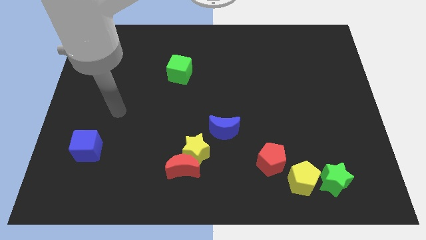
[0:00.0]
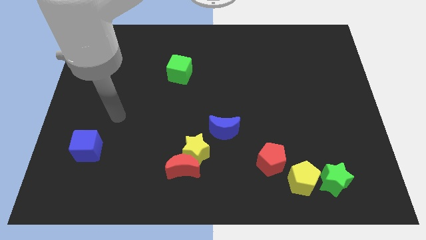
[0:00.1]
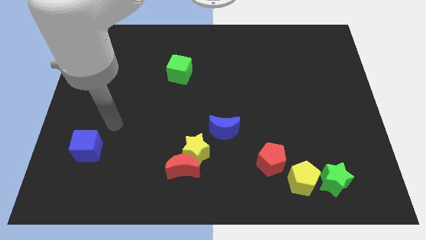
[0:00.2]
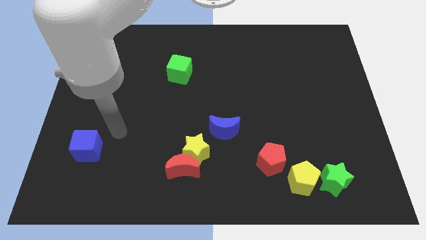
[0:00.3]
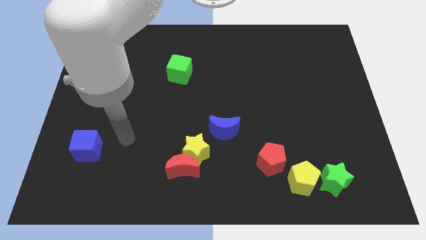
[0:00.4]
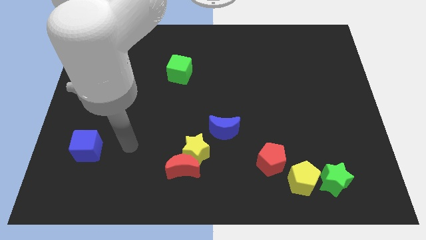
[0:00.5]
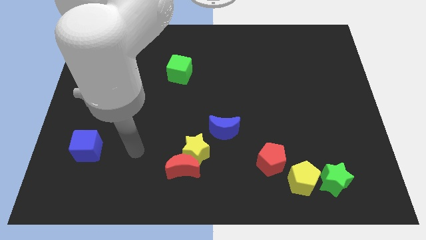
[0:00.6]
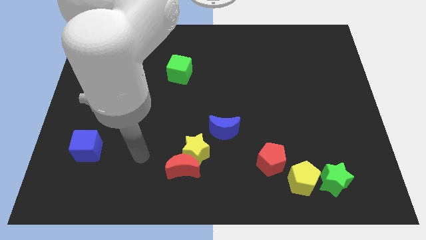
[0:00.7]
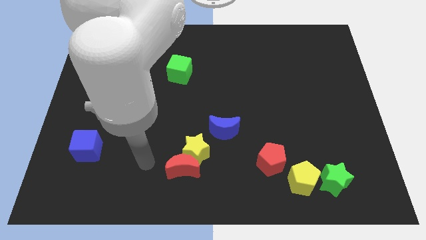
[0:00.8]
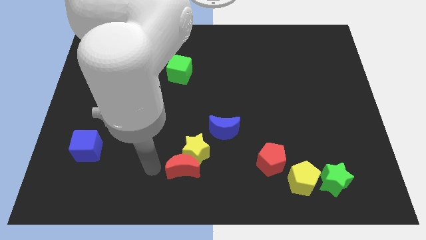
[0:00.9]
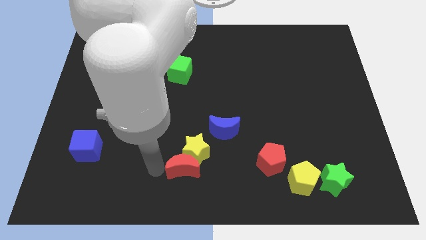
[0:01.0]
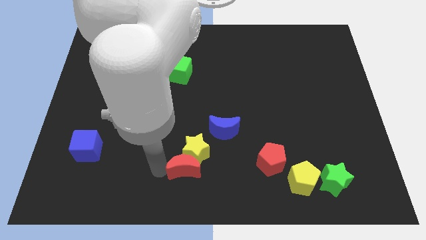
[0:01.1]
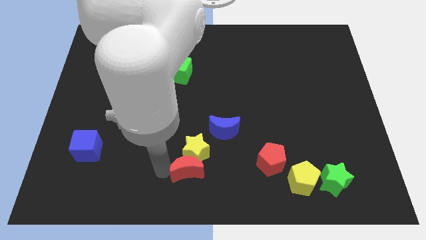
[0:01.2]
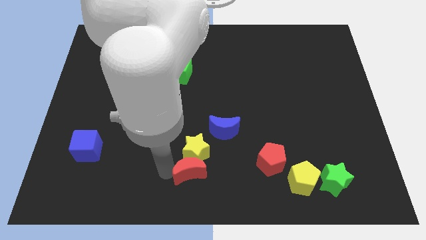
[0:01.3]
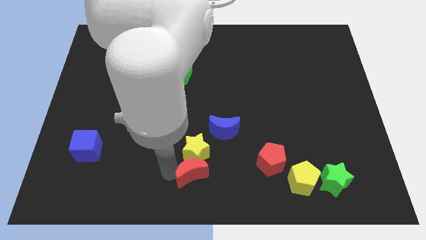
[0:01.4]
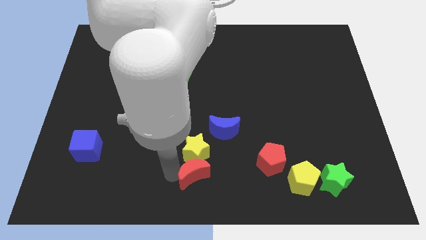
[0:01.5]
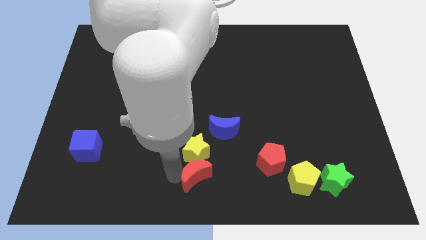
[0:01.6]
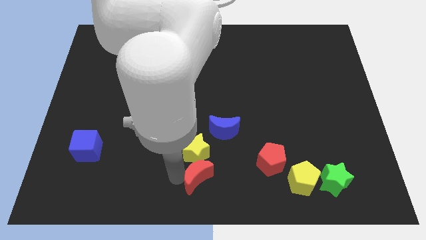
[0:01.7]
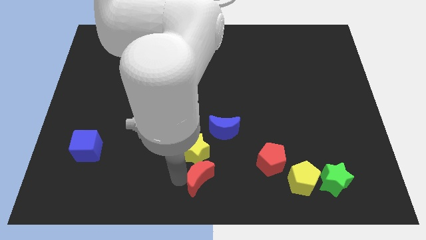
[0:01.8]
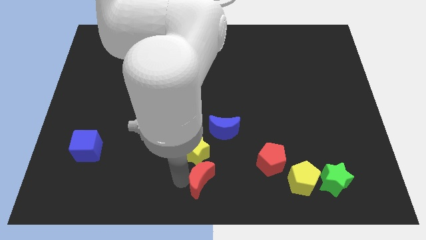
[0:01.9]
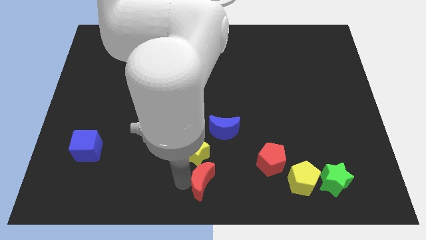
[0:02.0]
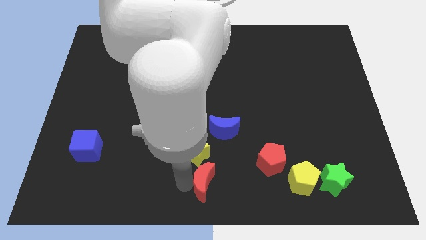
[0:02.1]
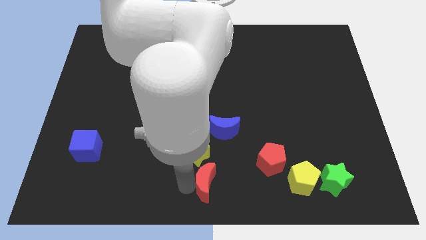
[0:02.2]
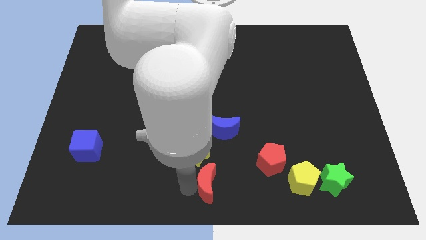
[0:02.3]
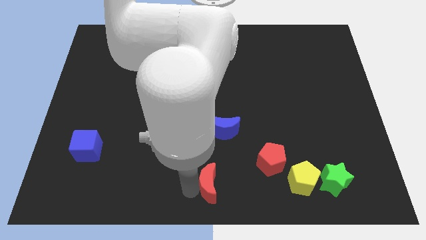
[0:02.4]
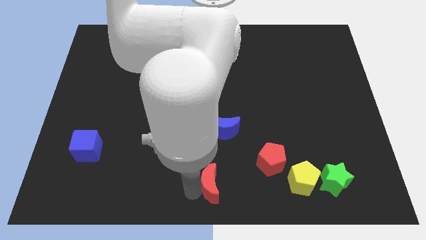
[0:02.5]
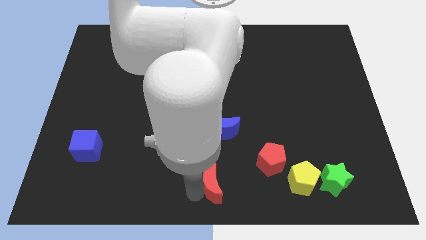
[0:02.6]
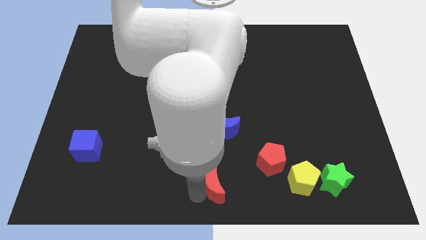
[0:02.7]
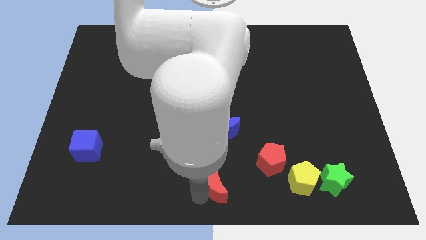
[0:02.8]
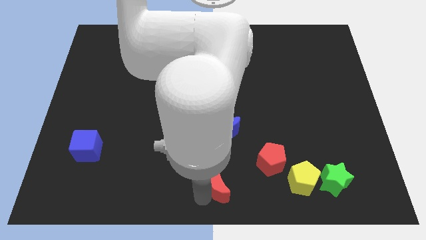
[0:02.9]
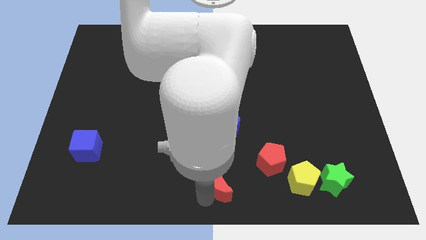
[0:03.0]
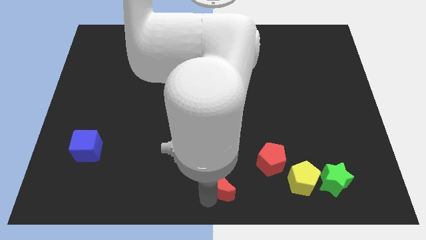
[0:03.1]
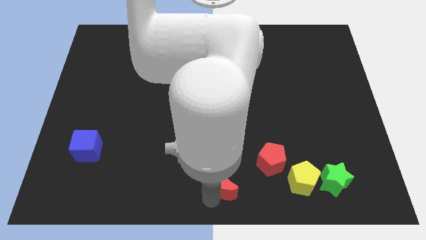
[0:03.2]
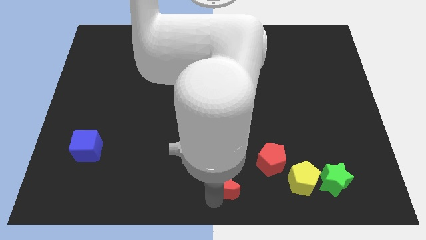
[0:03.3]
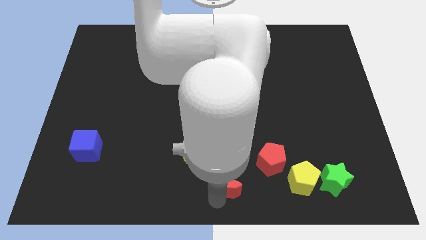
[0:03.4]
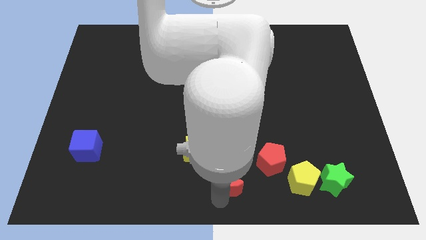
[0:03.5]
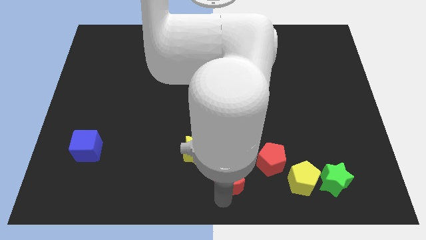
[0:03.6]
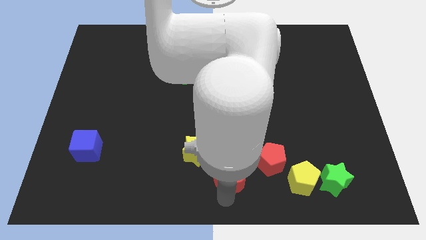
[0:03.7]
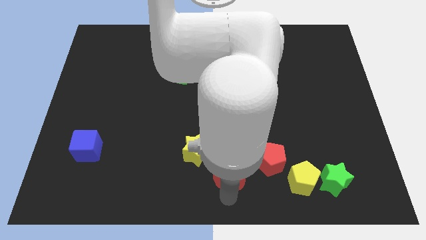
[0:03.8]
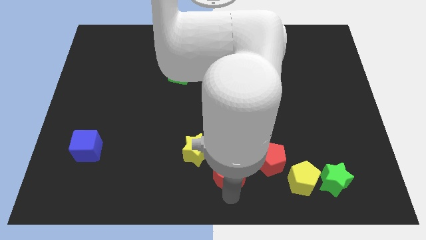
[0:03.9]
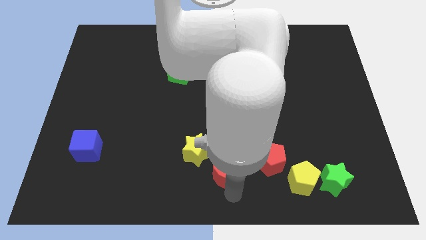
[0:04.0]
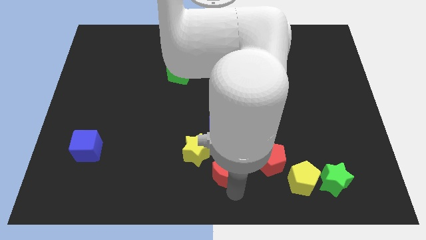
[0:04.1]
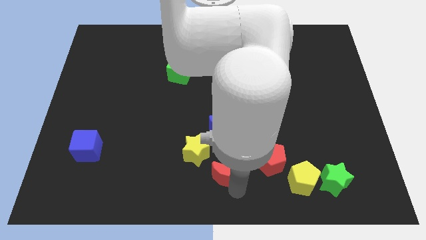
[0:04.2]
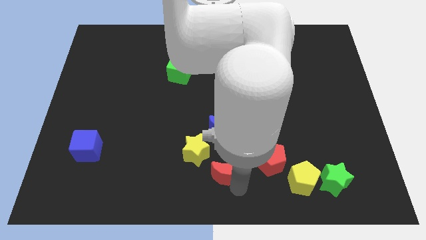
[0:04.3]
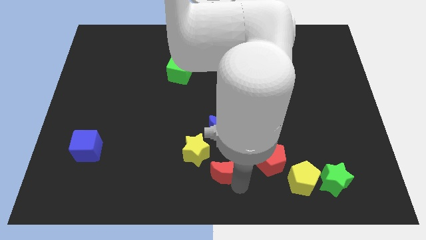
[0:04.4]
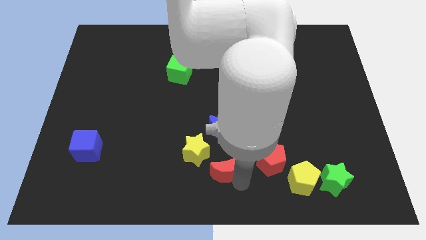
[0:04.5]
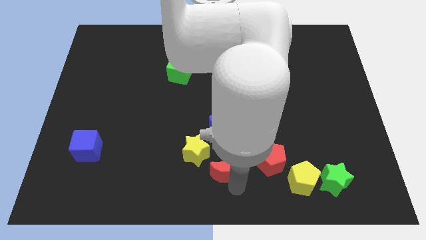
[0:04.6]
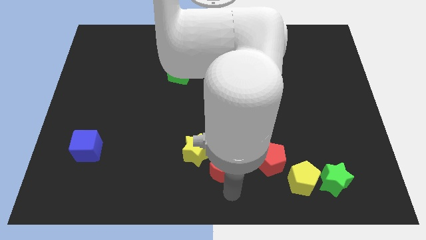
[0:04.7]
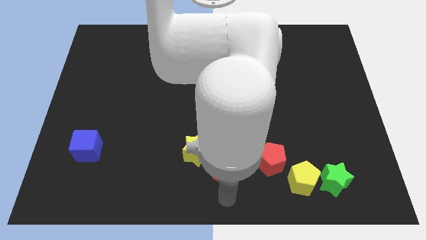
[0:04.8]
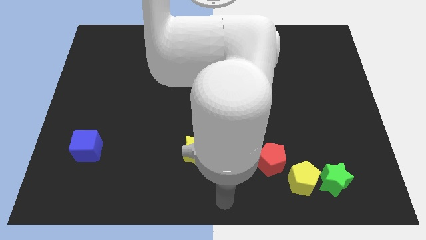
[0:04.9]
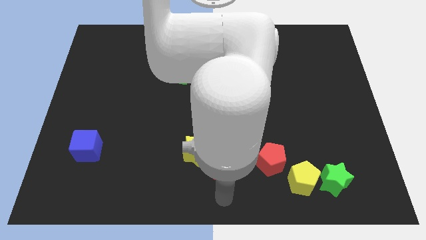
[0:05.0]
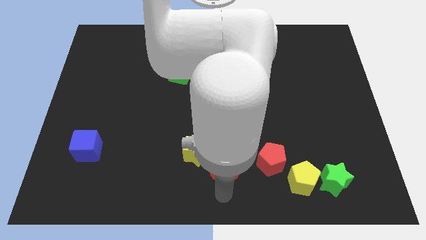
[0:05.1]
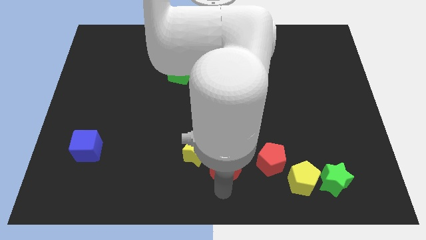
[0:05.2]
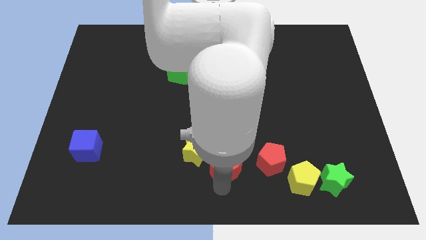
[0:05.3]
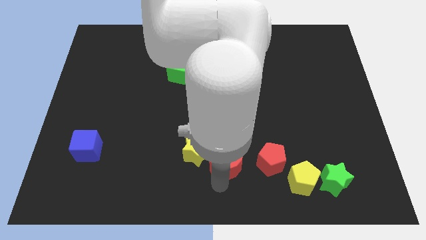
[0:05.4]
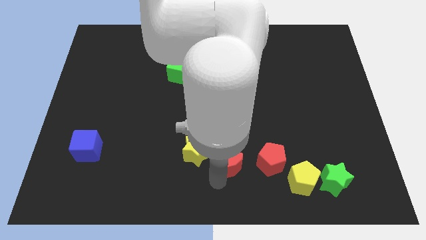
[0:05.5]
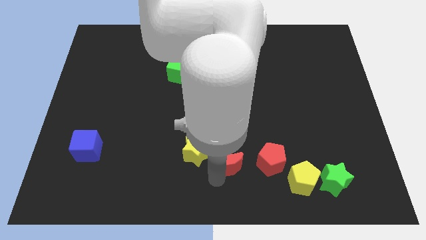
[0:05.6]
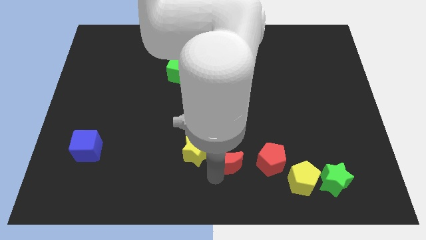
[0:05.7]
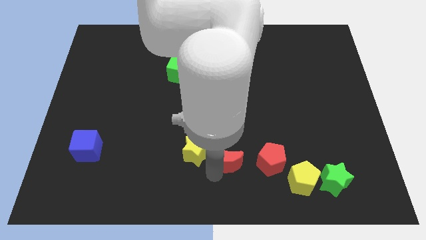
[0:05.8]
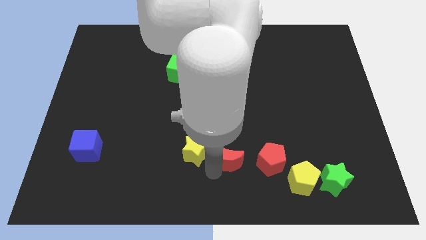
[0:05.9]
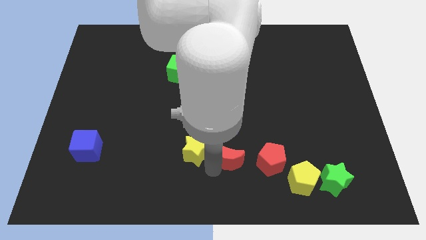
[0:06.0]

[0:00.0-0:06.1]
move the red moon a little diagonally upwards and to the right

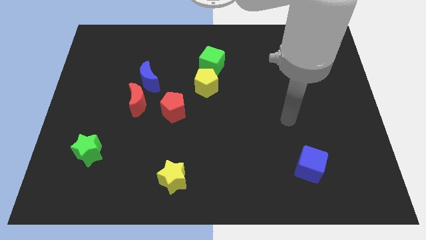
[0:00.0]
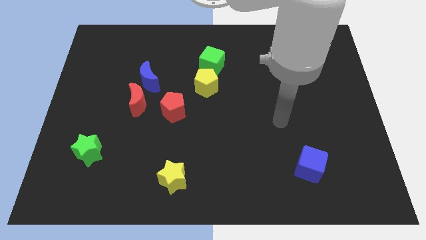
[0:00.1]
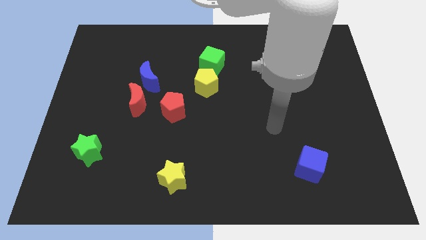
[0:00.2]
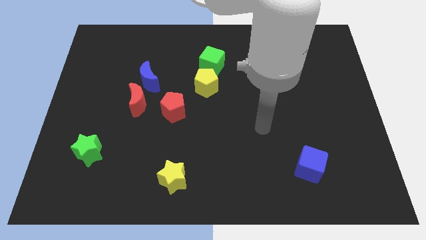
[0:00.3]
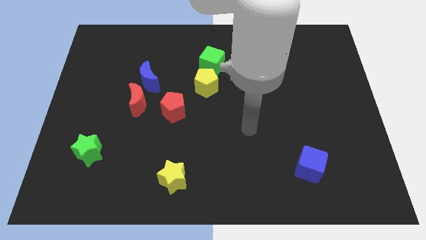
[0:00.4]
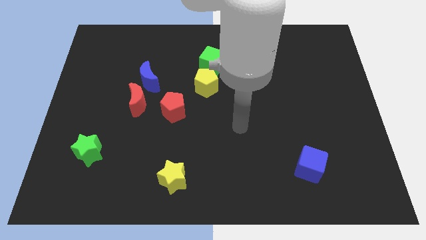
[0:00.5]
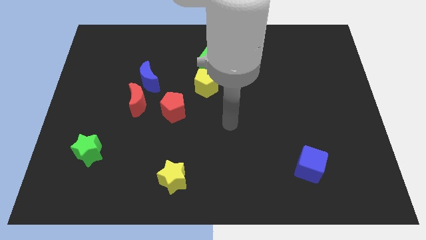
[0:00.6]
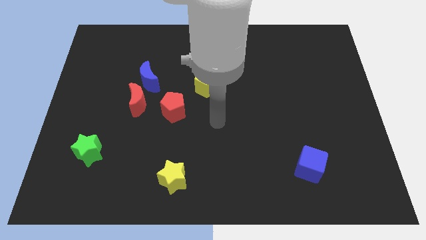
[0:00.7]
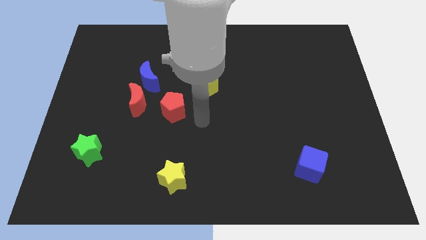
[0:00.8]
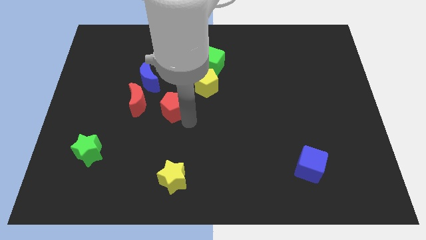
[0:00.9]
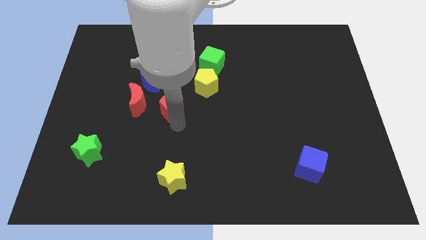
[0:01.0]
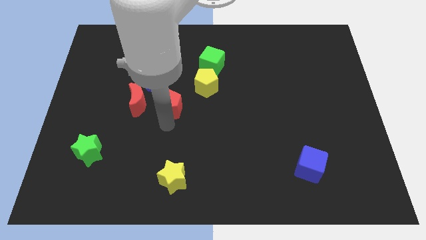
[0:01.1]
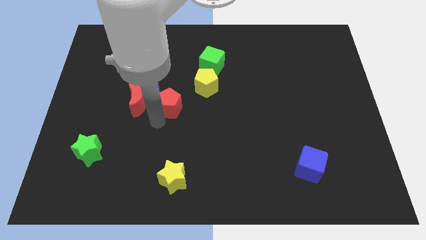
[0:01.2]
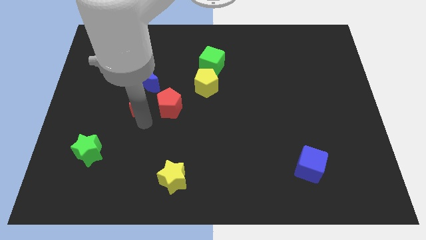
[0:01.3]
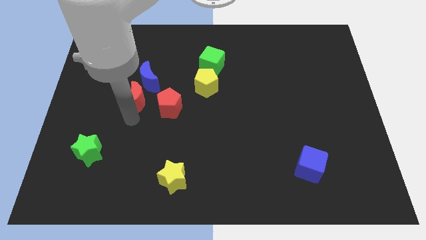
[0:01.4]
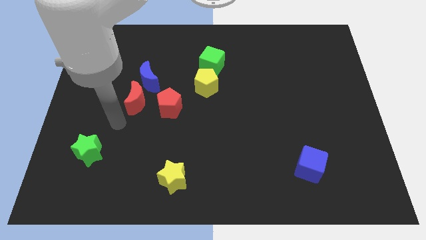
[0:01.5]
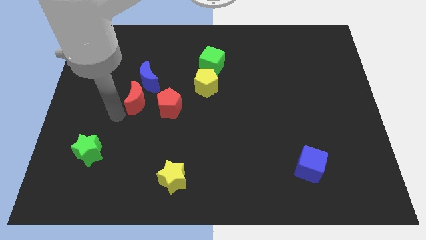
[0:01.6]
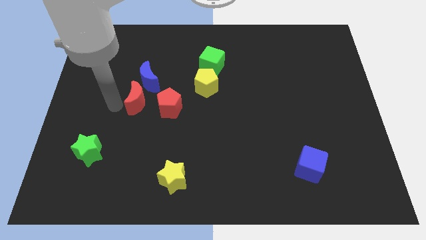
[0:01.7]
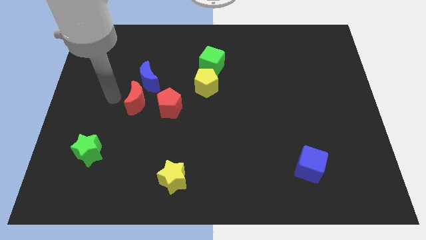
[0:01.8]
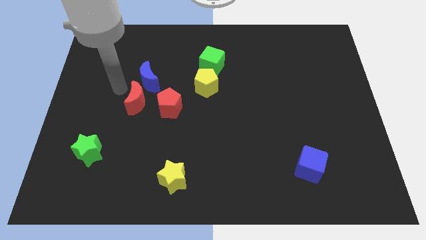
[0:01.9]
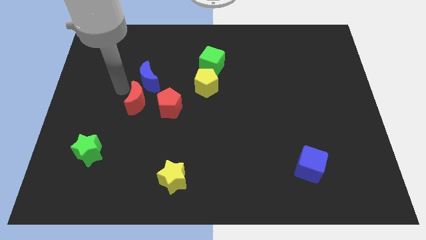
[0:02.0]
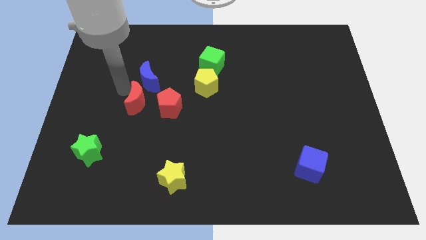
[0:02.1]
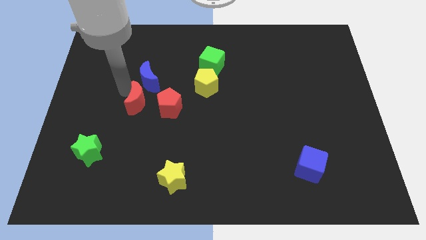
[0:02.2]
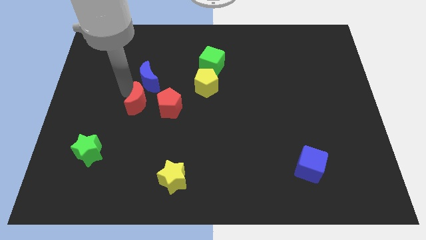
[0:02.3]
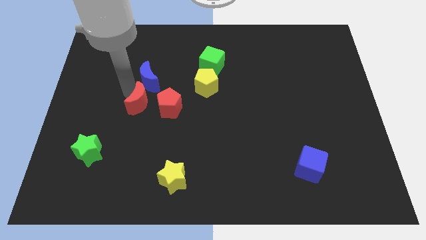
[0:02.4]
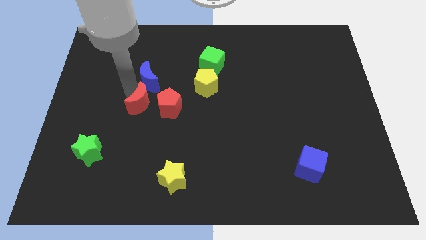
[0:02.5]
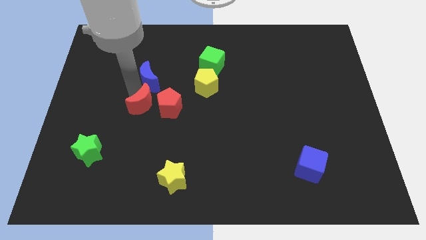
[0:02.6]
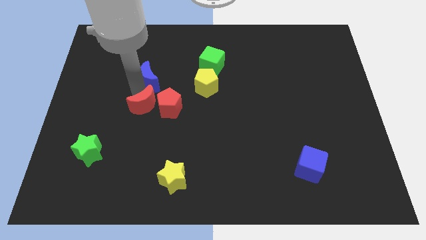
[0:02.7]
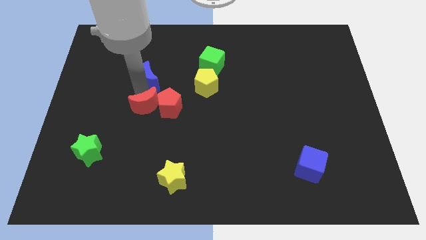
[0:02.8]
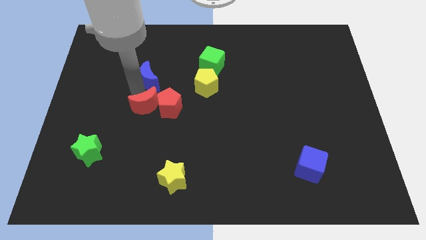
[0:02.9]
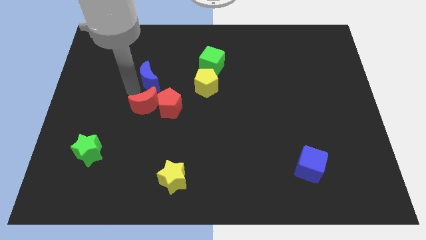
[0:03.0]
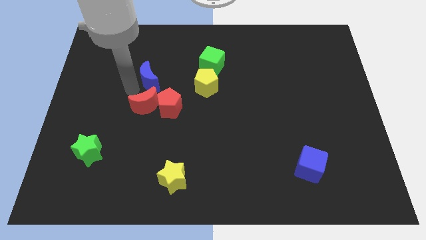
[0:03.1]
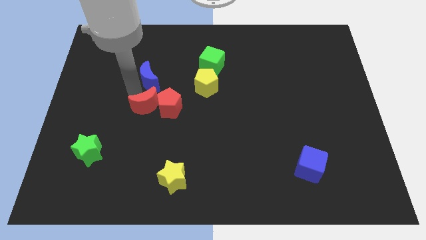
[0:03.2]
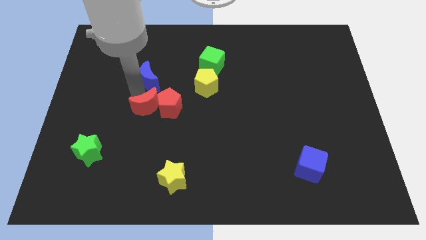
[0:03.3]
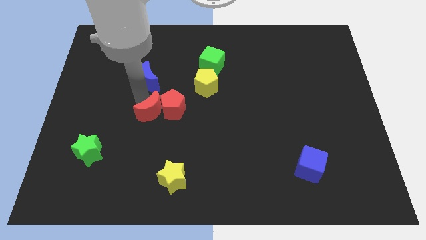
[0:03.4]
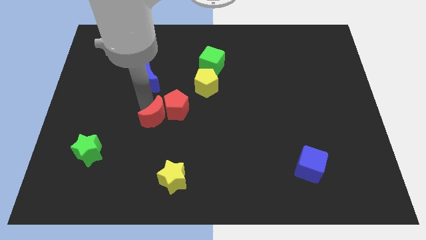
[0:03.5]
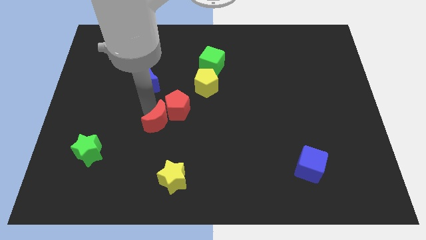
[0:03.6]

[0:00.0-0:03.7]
slide the red moon somewhat down and to the right
